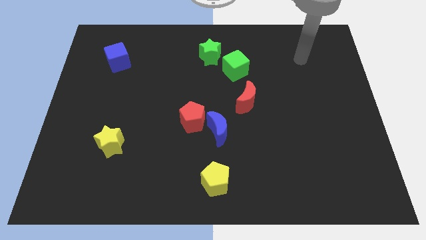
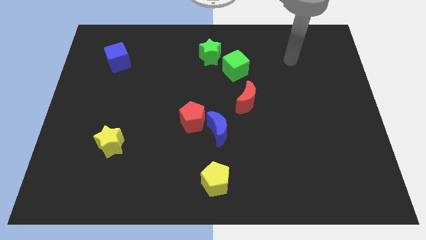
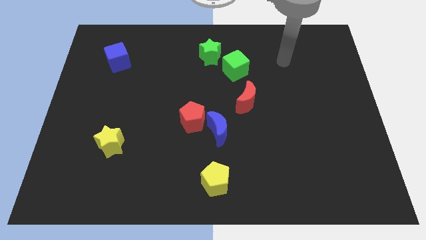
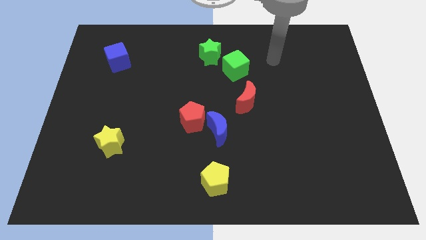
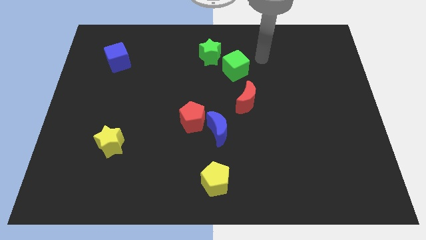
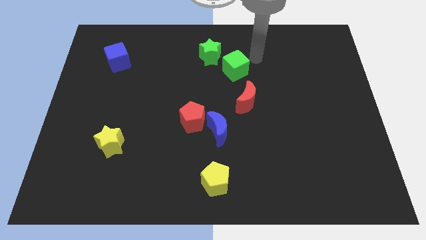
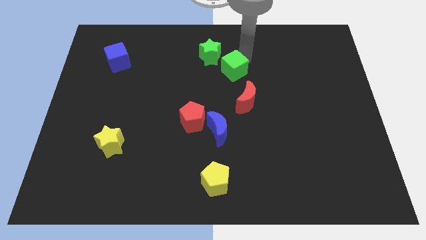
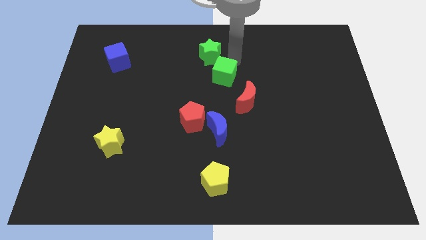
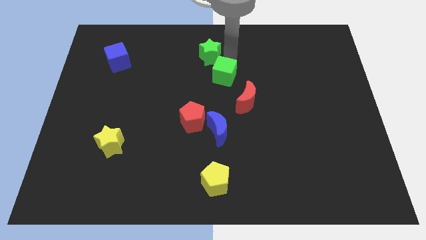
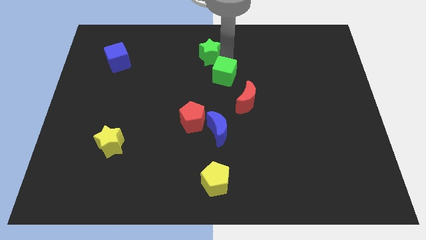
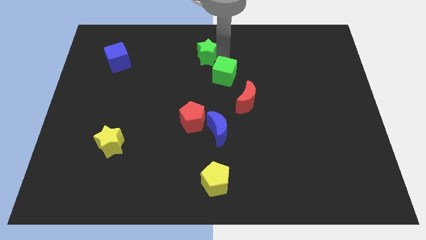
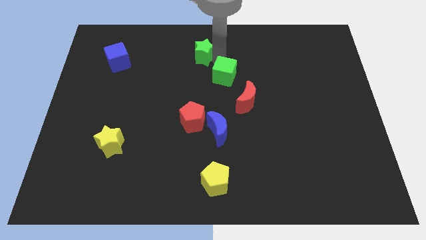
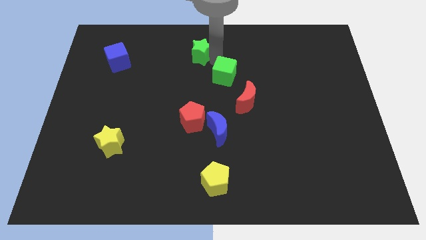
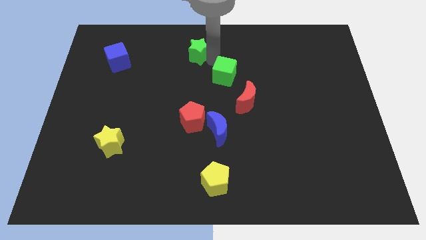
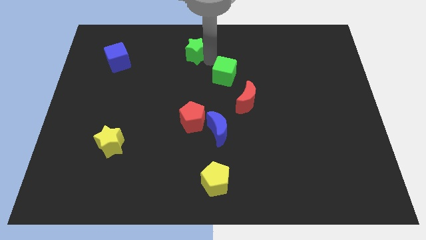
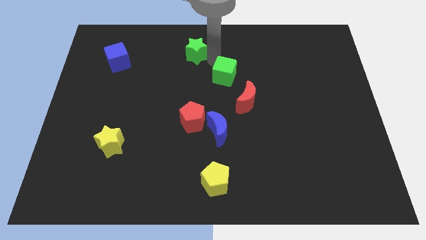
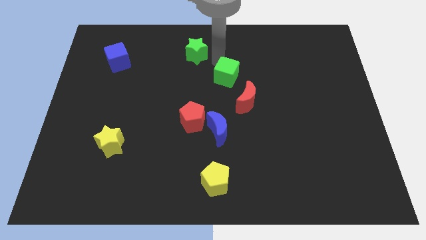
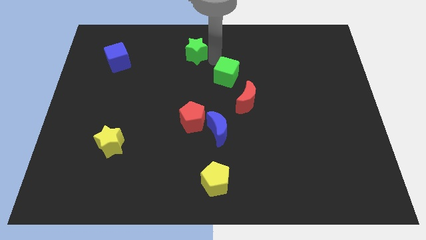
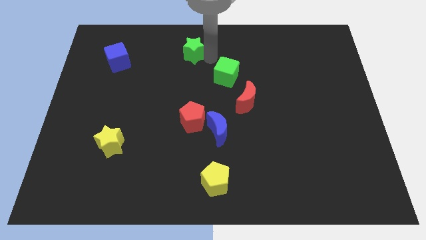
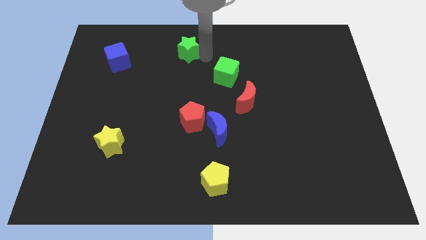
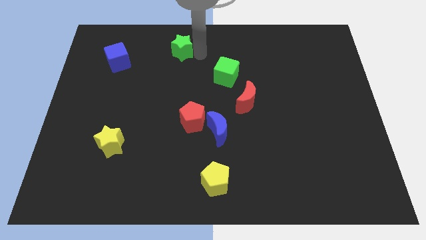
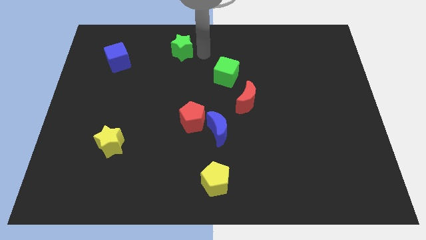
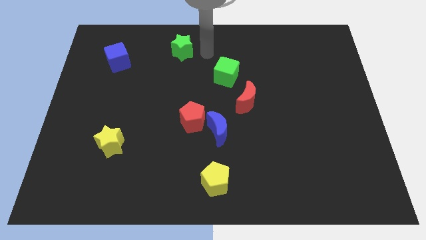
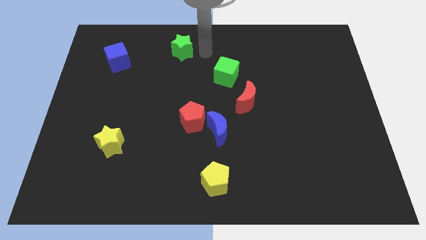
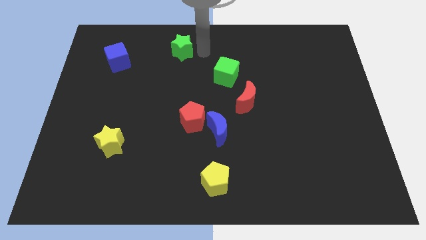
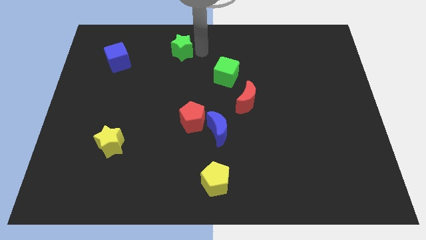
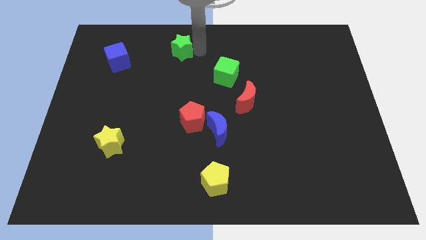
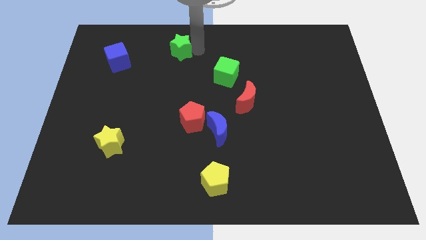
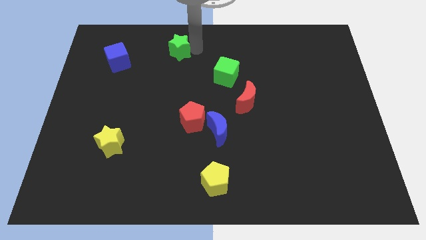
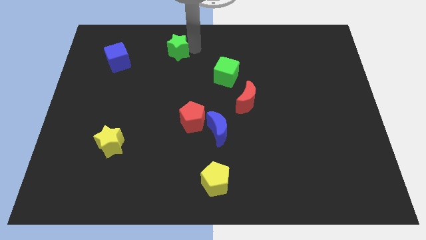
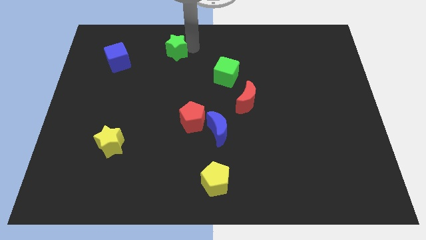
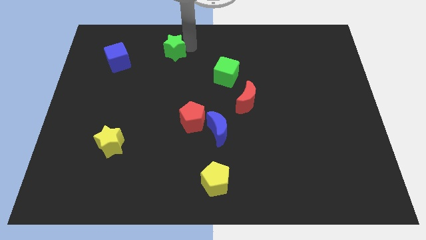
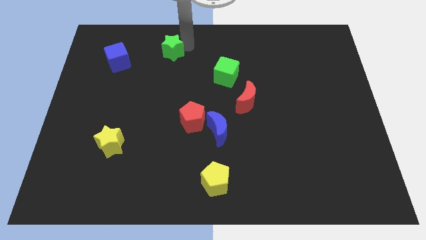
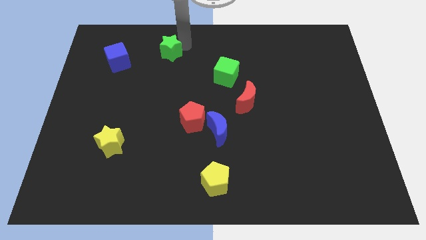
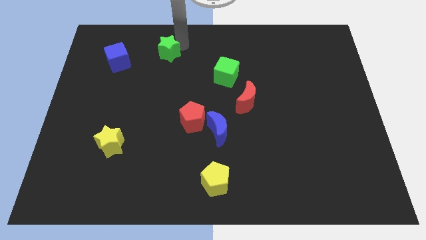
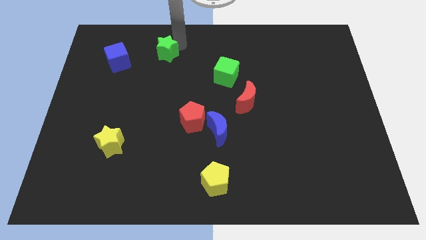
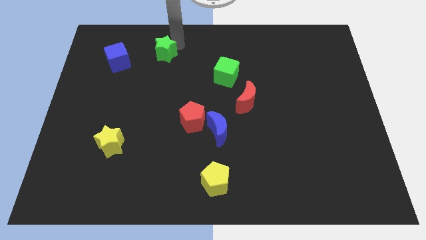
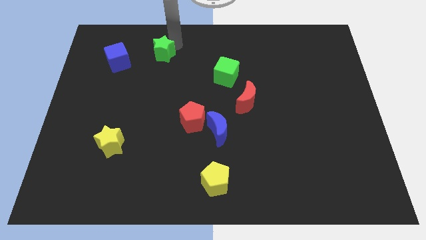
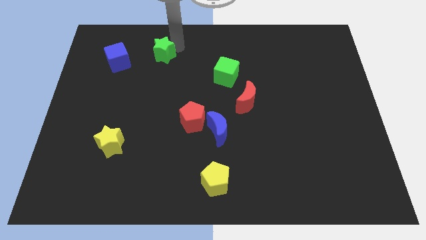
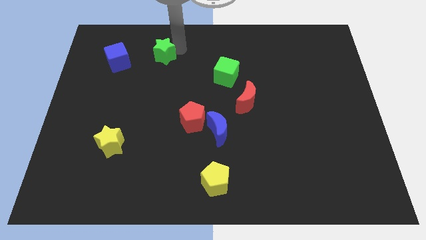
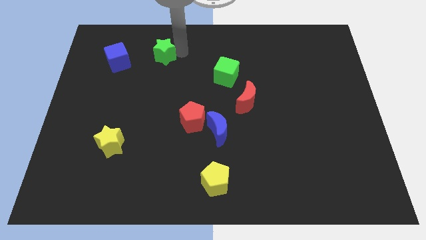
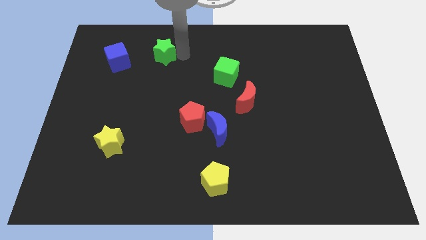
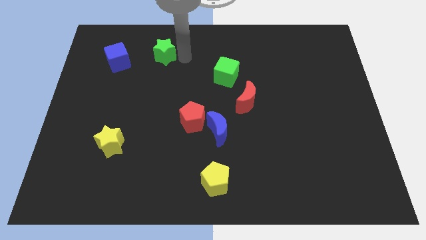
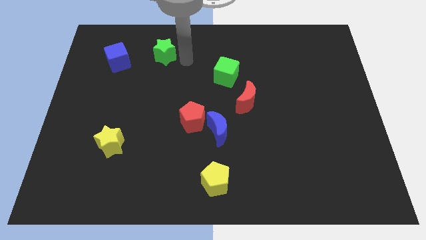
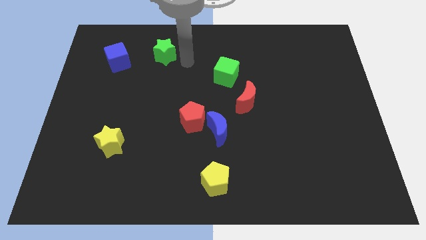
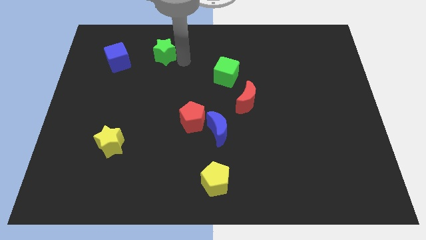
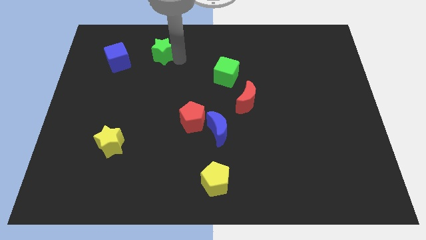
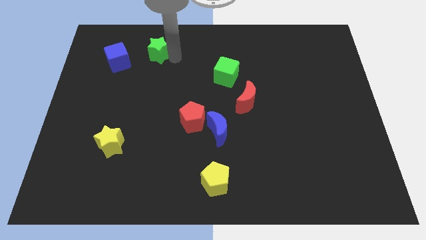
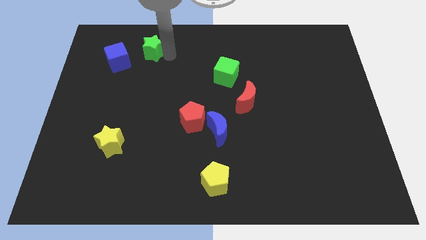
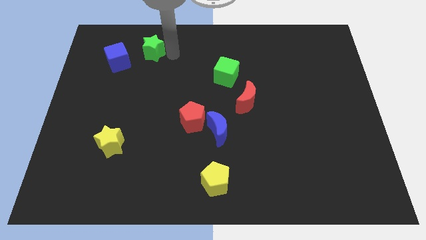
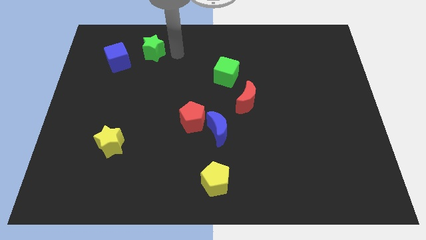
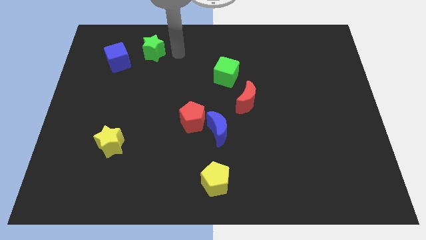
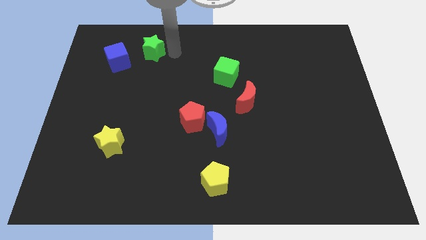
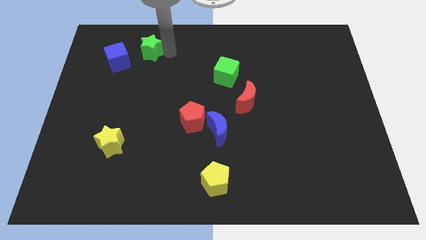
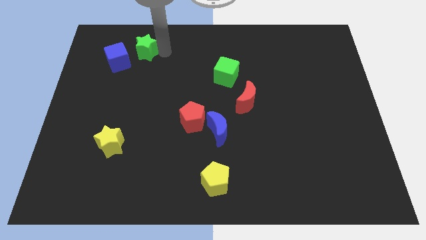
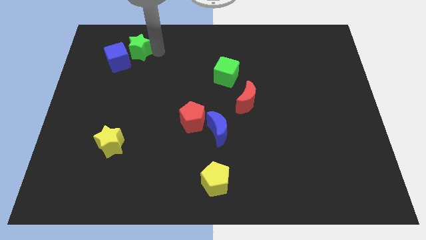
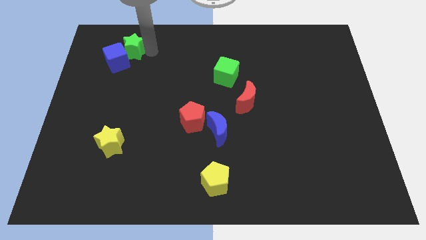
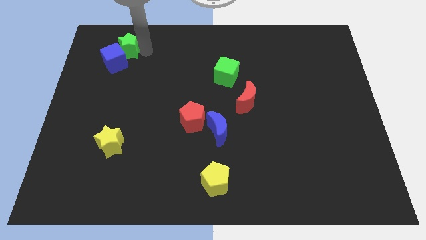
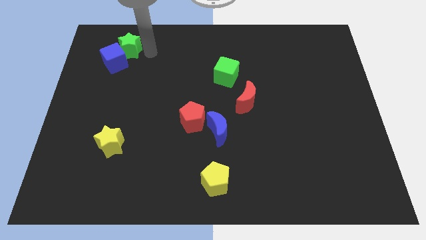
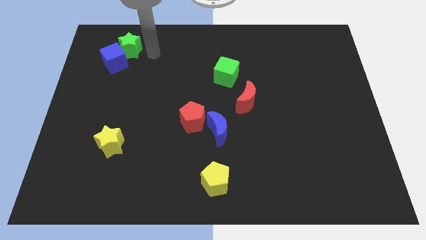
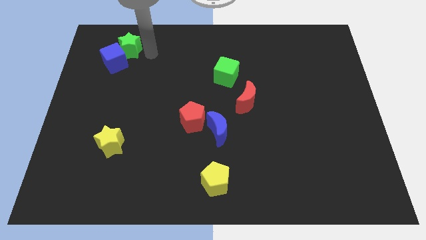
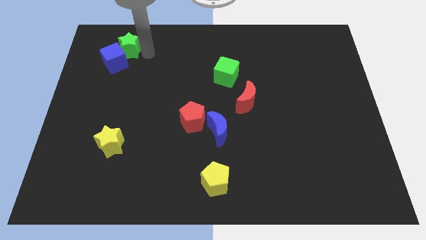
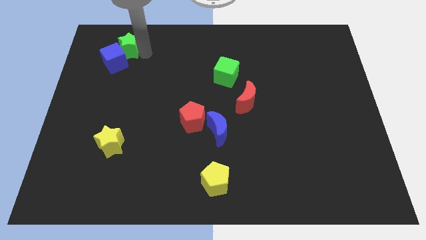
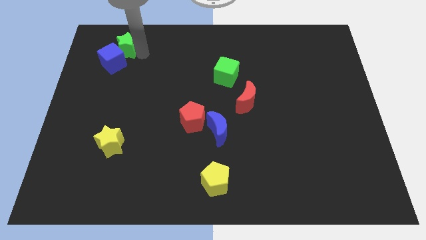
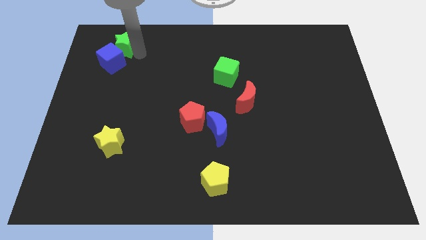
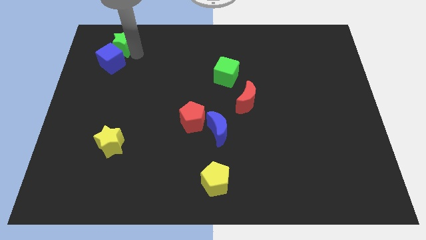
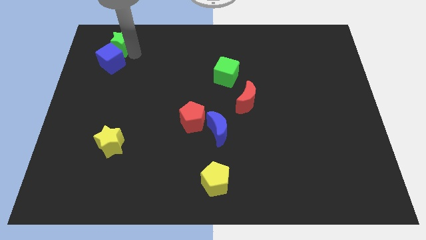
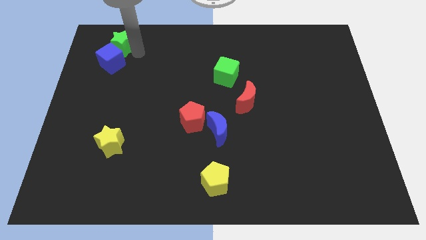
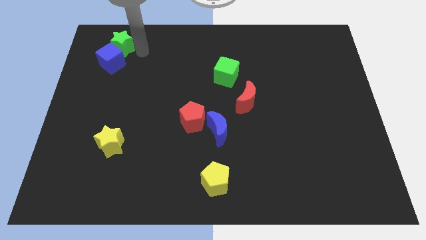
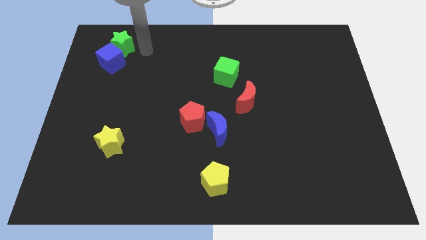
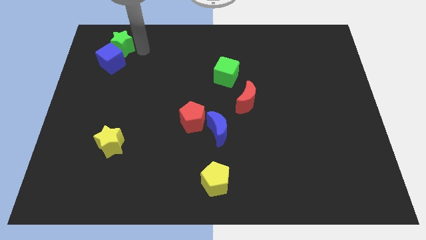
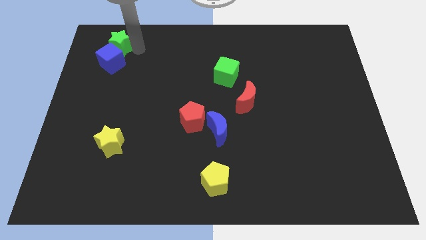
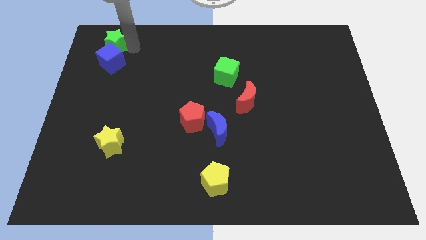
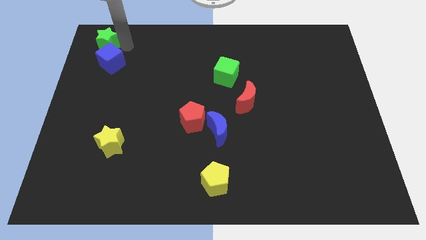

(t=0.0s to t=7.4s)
slide the green star to the top left of the board
